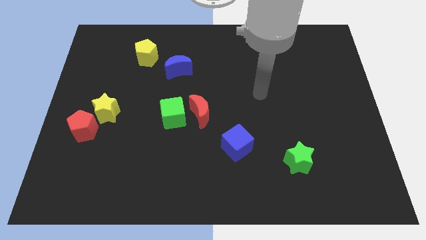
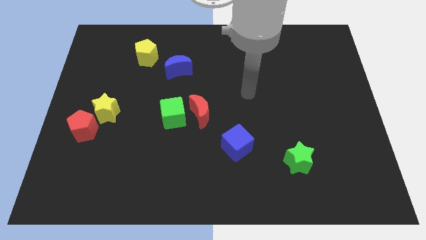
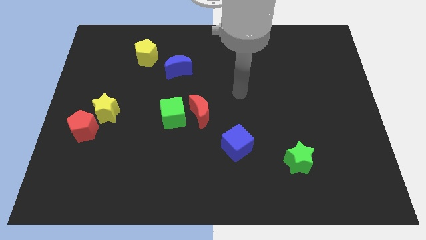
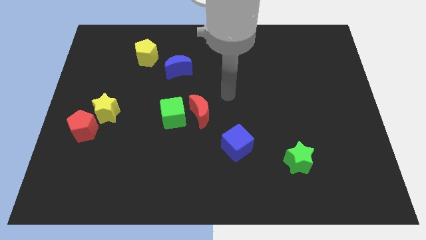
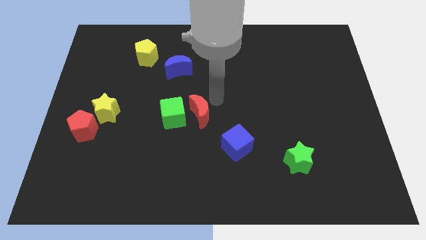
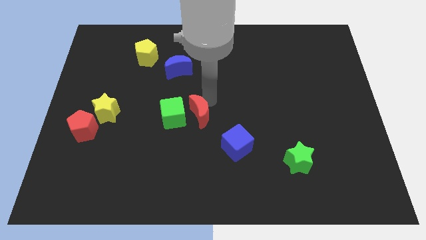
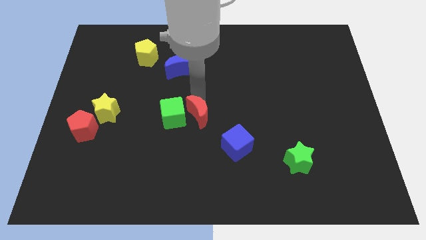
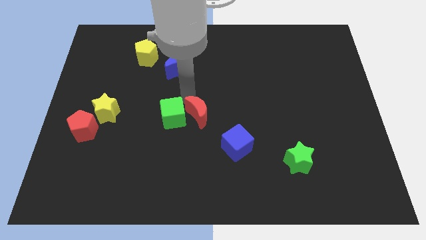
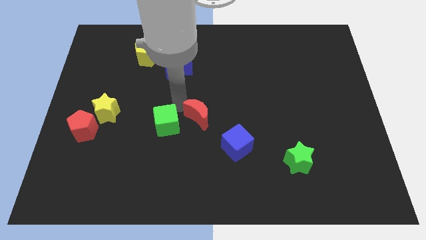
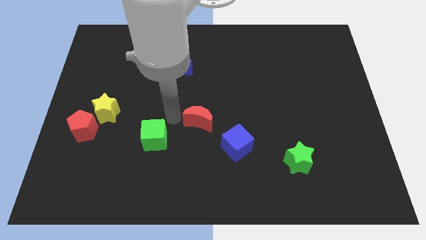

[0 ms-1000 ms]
separate the red moon from the green cube

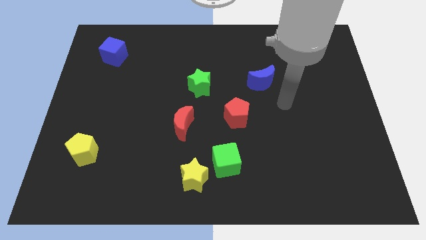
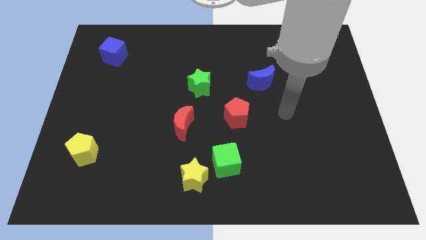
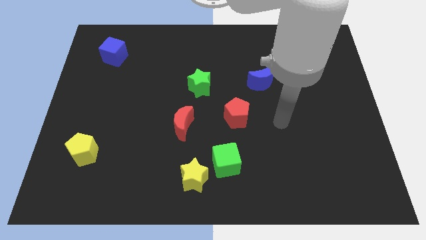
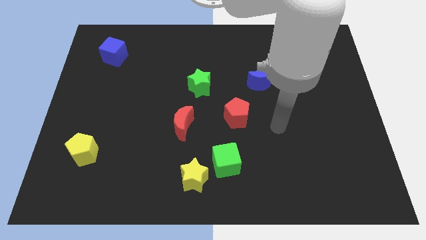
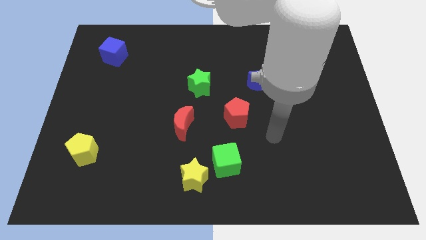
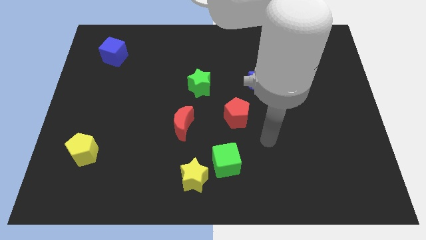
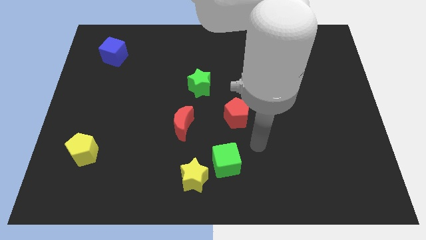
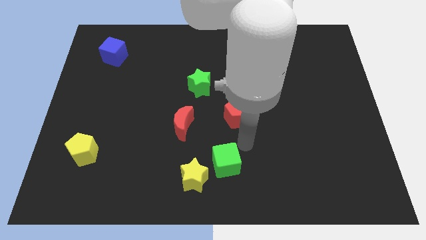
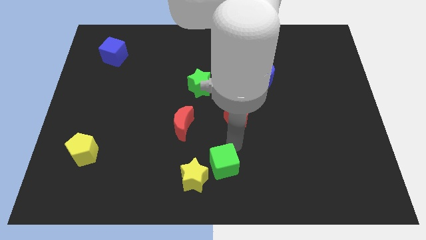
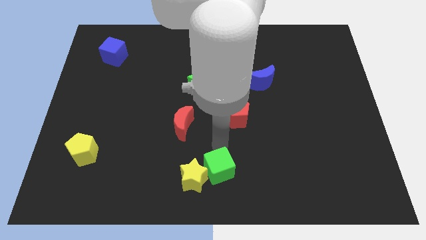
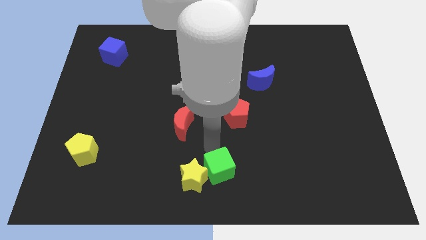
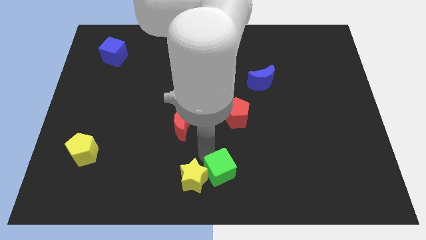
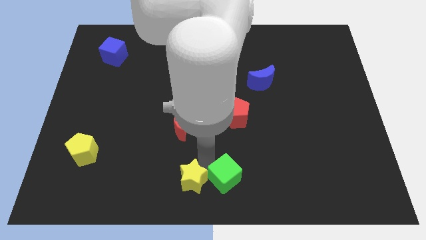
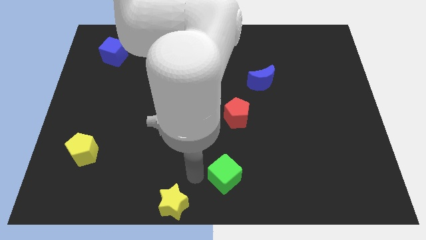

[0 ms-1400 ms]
pull the green cube apart from the yellow star

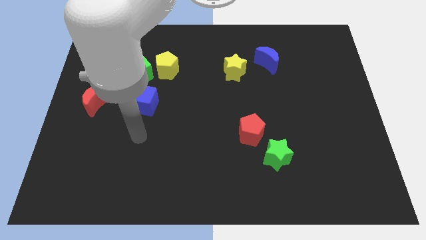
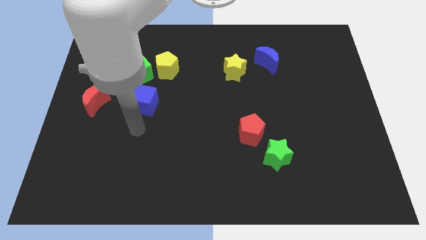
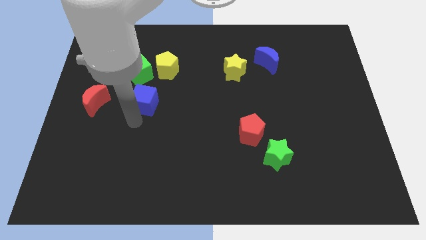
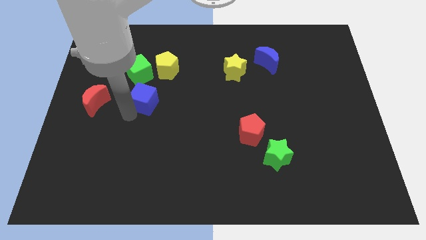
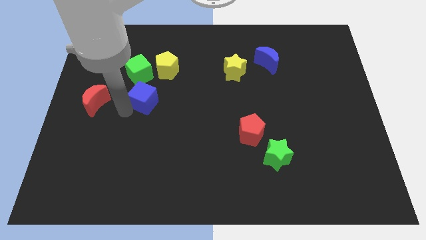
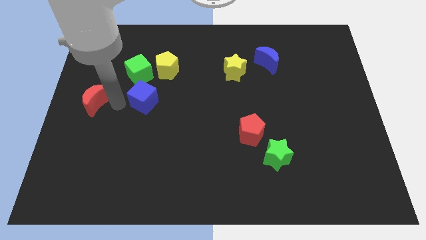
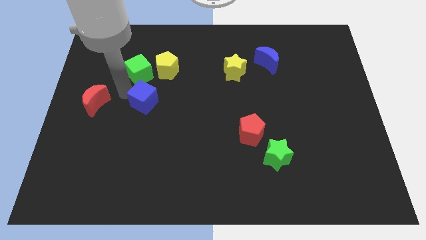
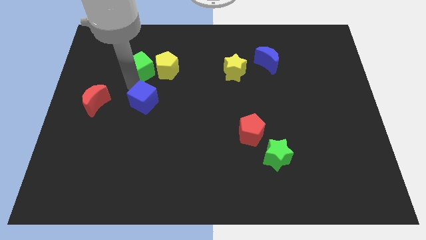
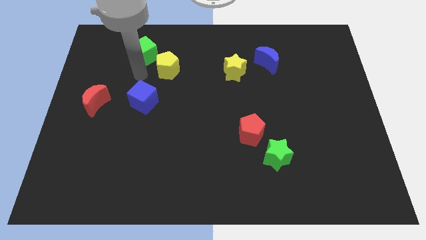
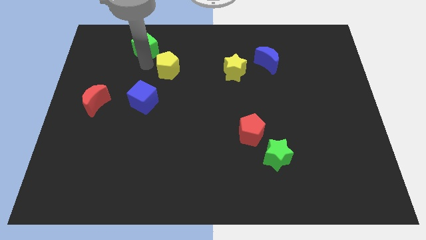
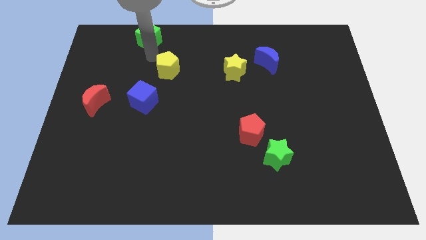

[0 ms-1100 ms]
pull the yellow pentagon apart from the green cube

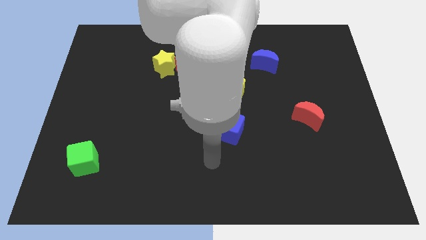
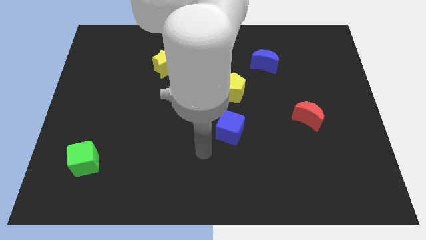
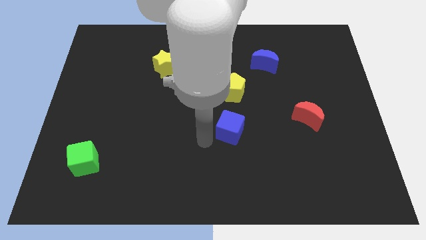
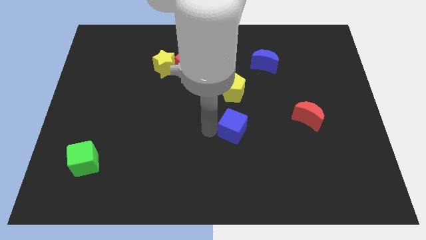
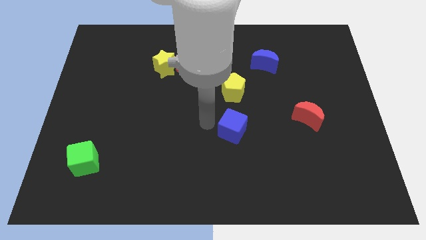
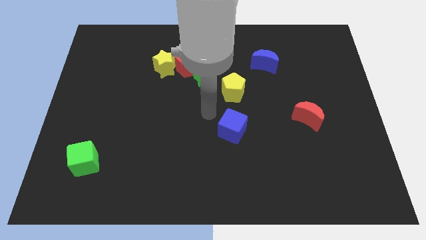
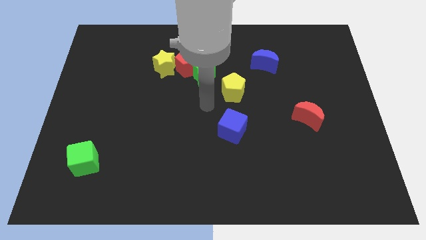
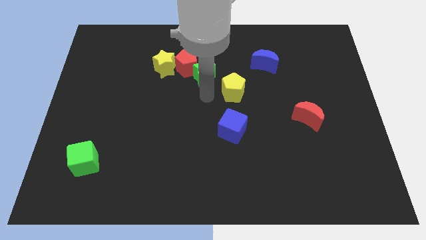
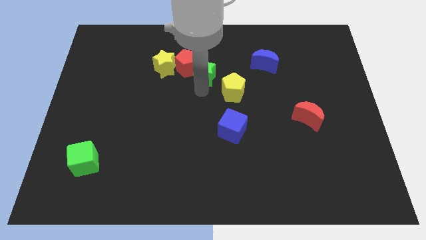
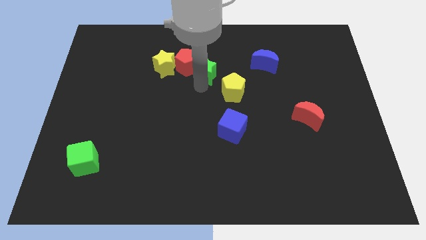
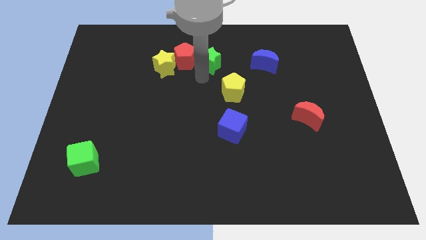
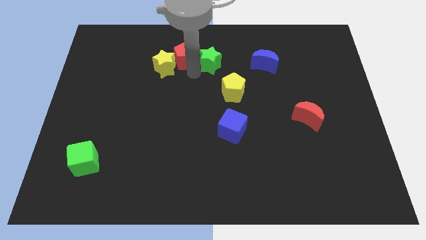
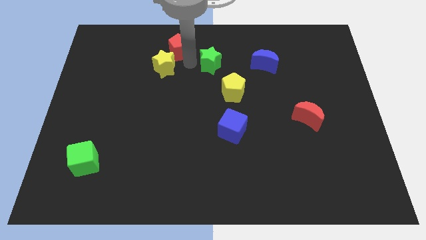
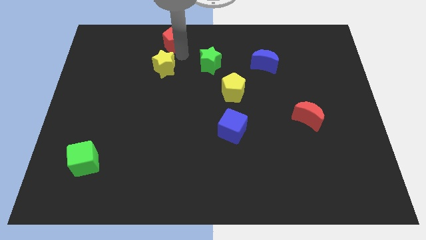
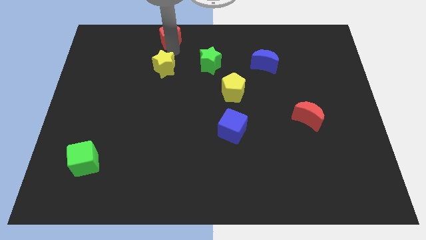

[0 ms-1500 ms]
move the yellow star away from the red pentagon

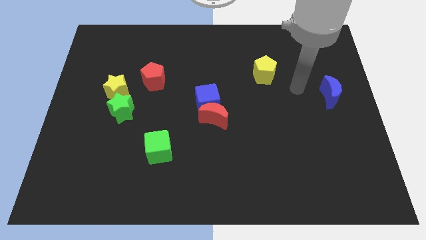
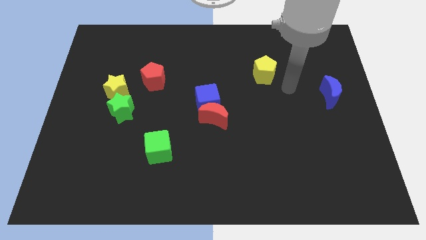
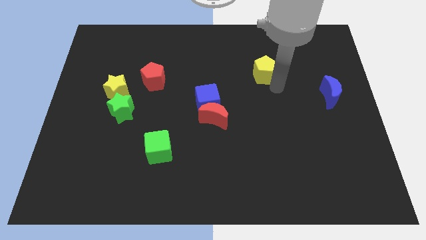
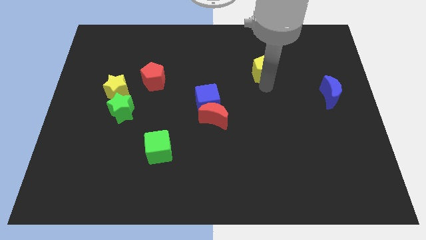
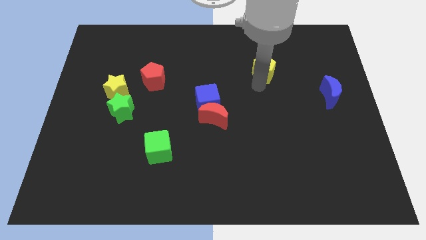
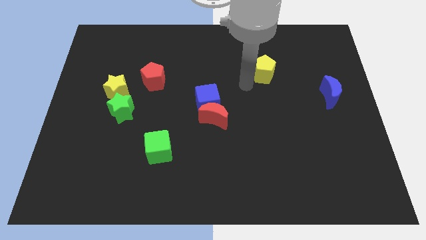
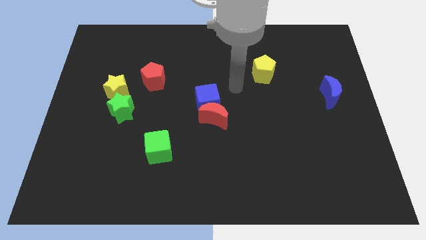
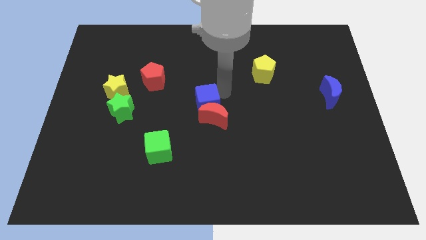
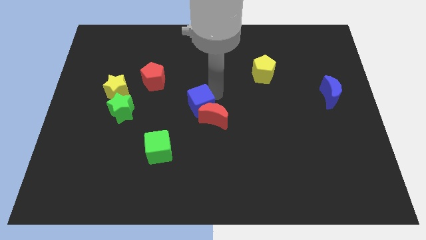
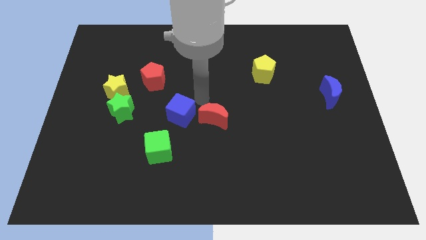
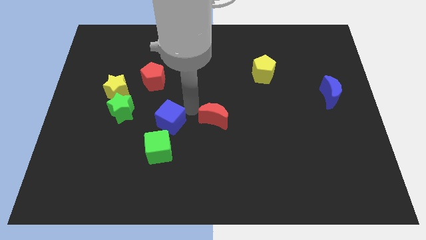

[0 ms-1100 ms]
separate the red moon from the blue cube

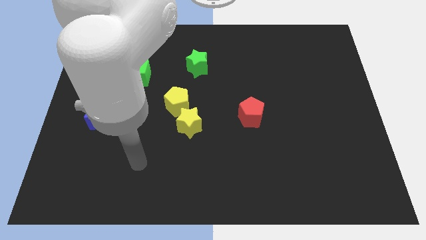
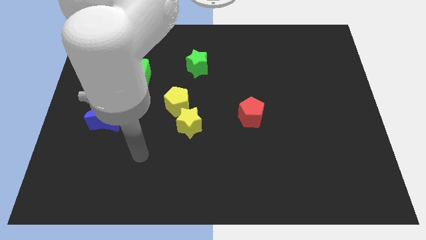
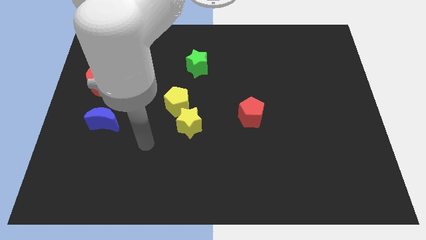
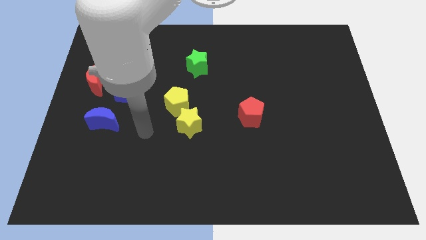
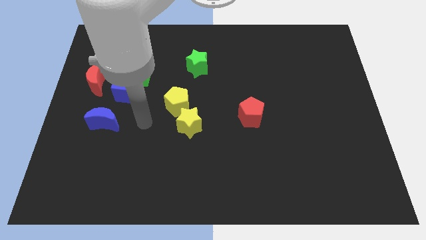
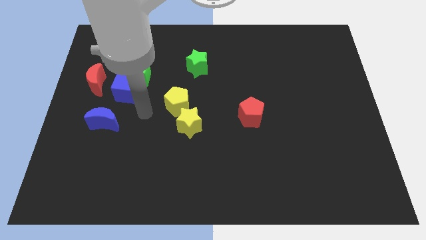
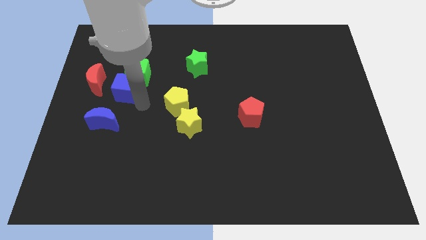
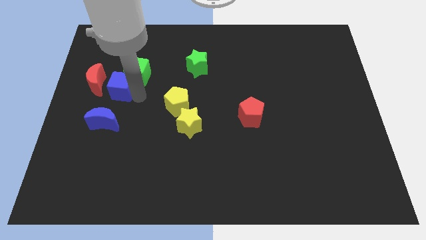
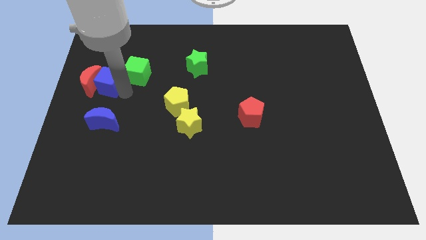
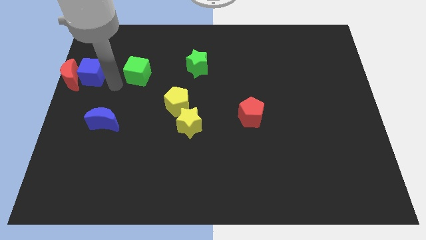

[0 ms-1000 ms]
separate the green cube from the blue cube

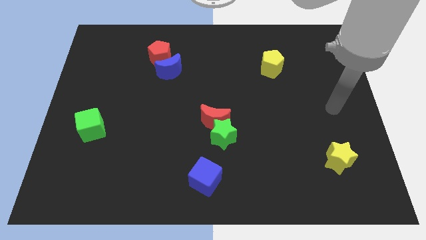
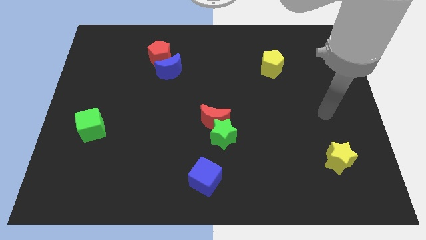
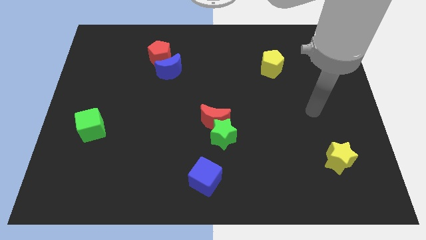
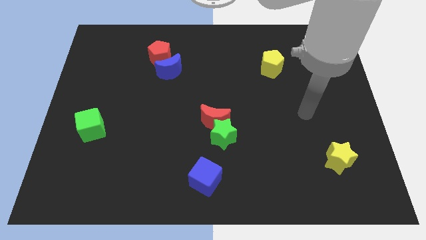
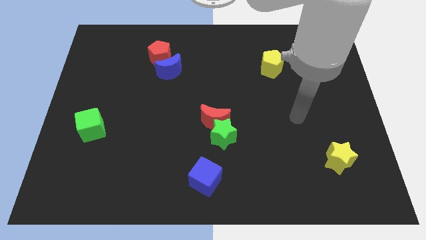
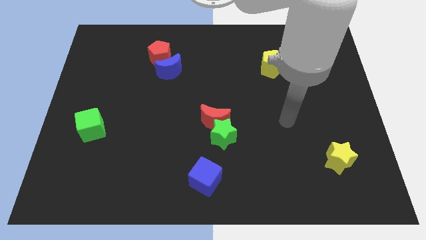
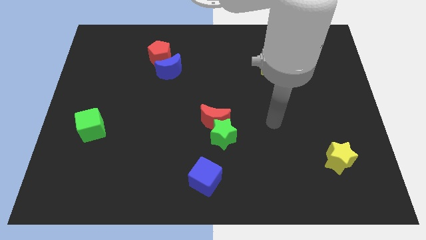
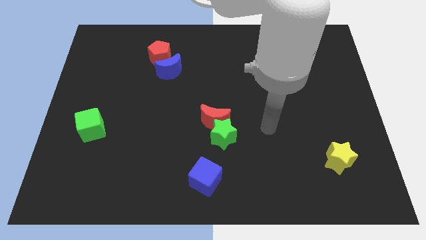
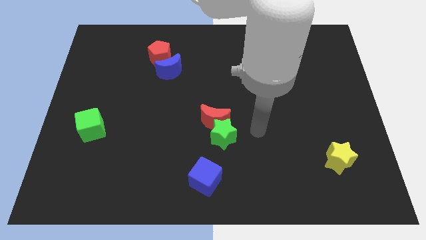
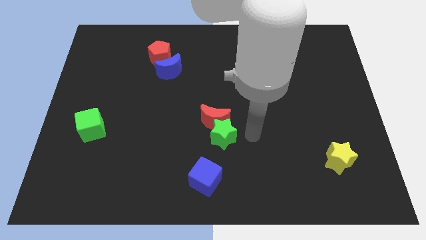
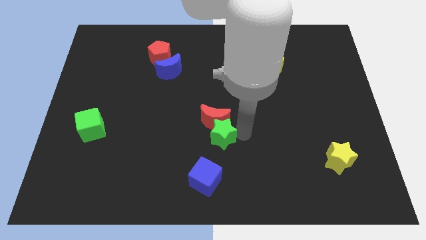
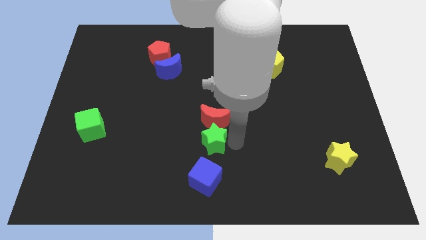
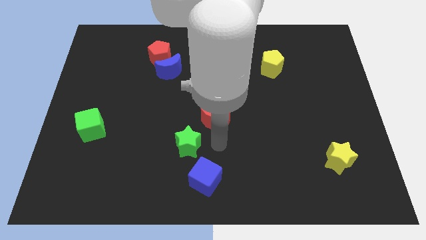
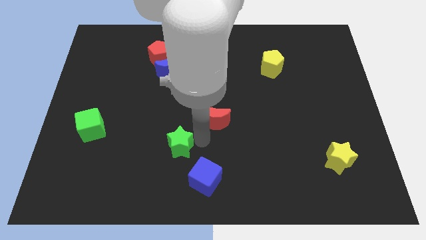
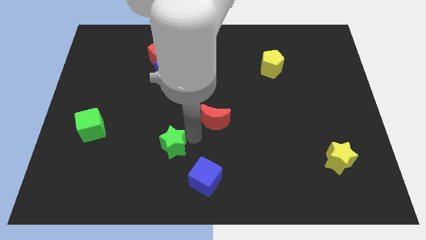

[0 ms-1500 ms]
move the red moon away from the green star

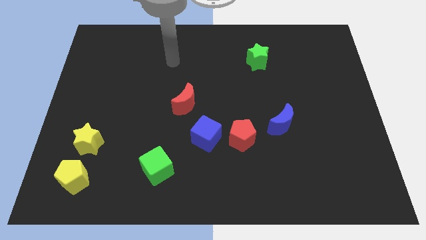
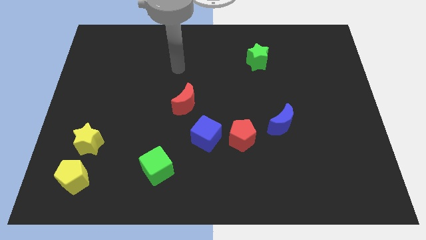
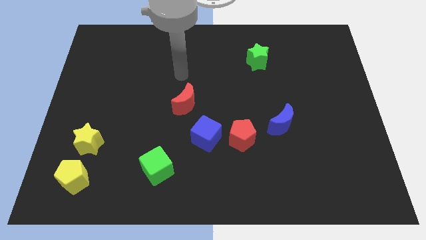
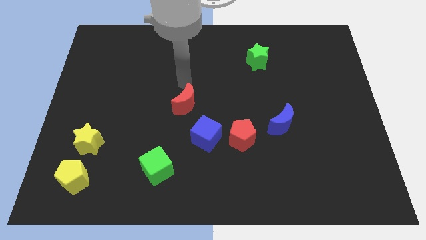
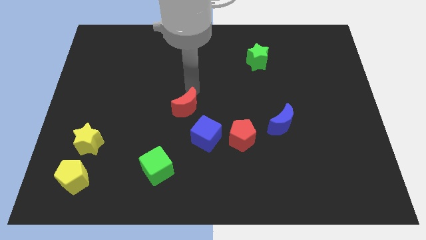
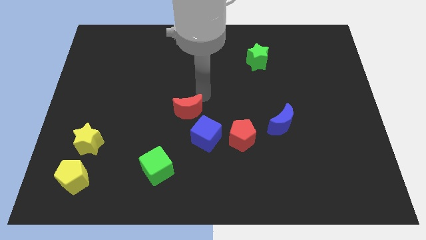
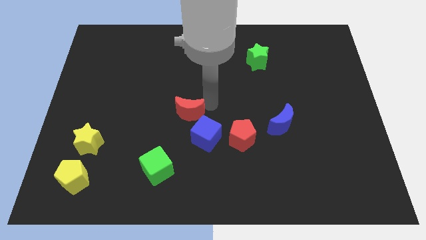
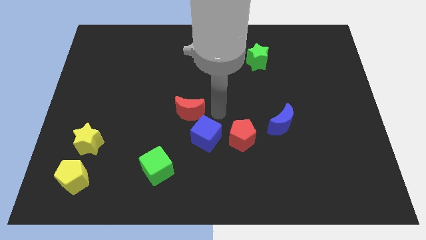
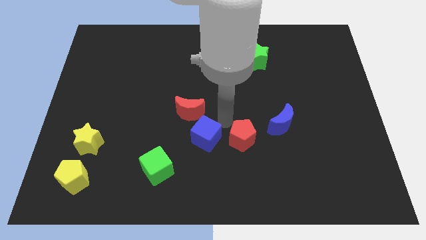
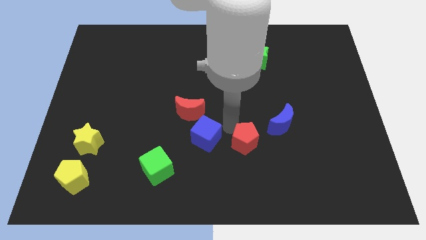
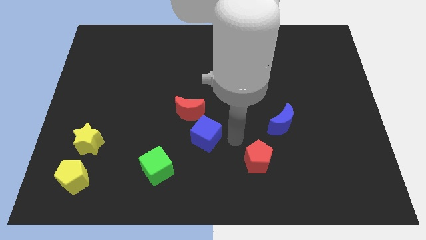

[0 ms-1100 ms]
separate the blue cube from the red pentagon
